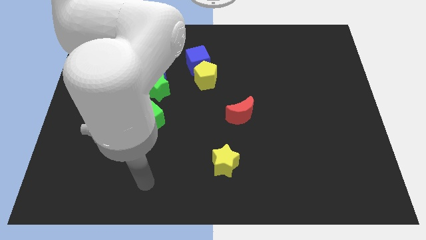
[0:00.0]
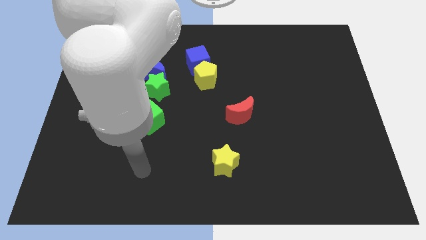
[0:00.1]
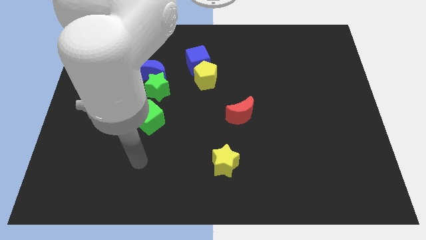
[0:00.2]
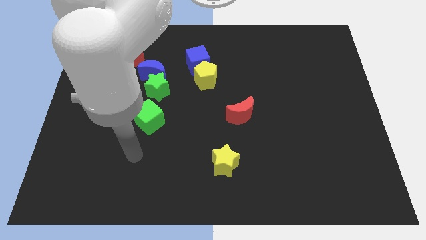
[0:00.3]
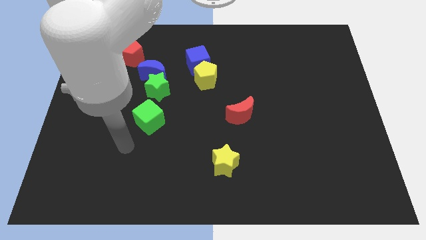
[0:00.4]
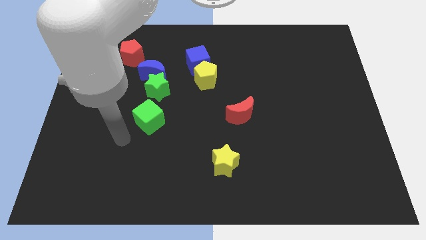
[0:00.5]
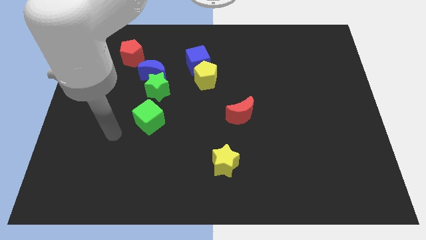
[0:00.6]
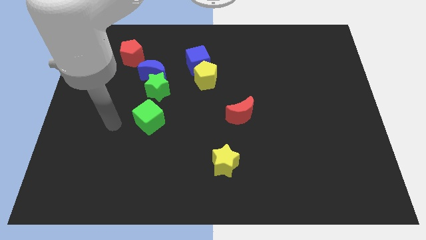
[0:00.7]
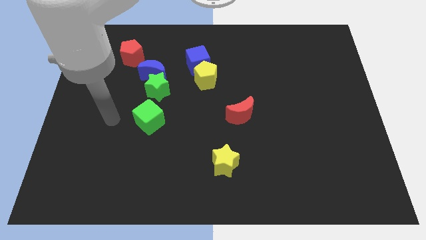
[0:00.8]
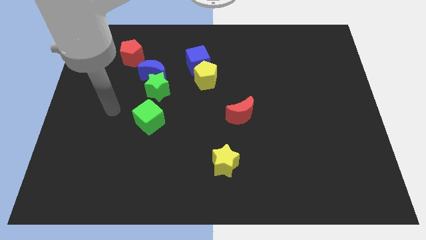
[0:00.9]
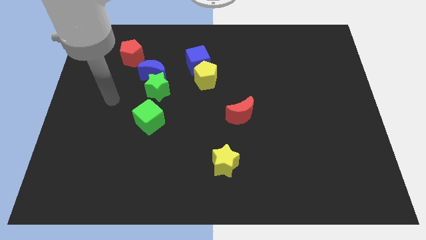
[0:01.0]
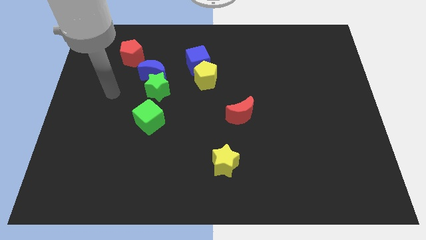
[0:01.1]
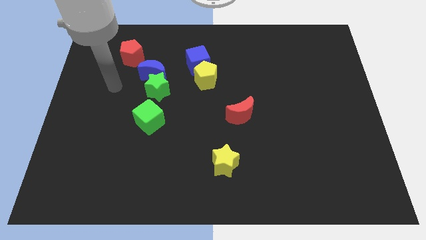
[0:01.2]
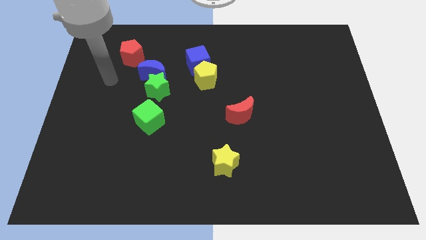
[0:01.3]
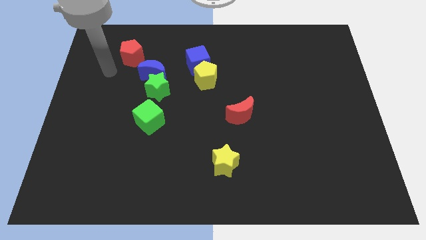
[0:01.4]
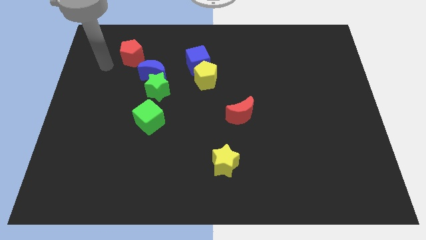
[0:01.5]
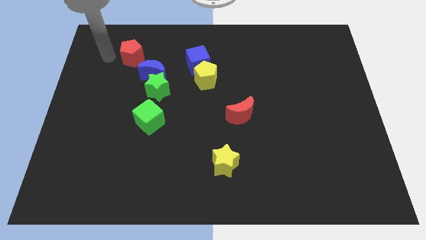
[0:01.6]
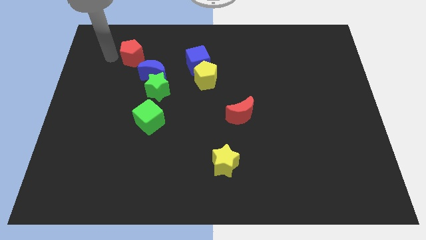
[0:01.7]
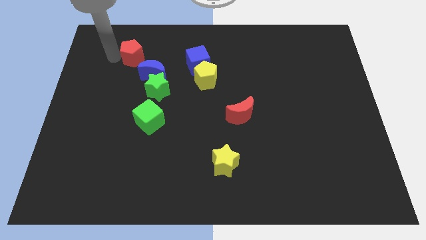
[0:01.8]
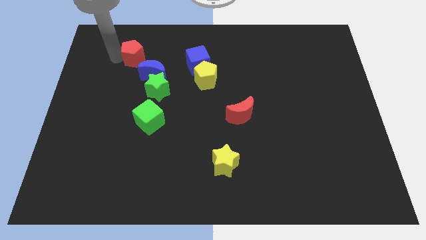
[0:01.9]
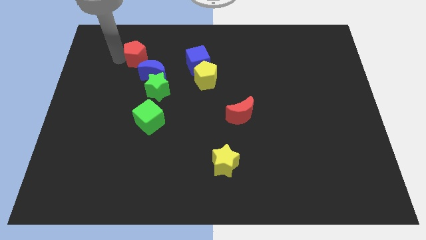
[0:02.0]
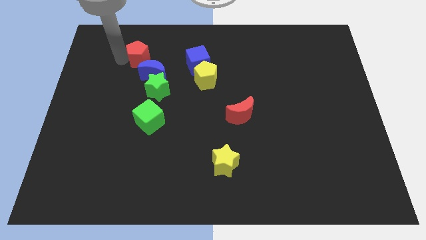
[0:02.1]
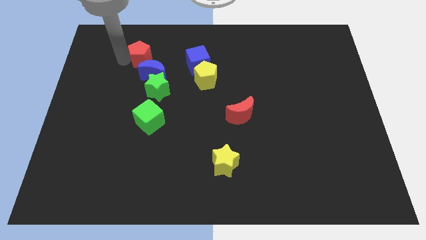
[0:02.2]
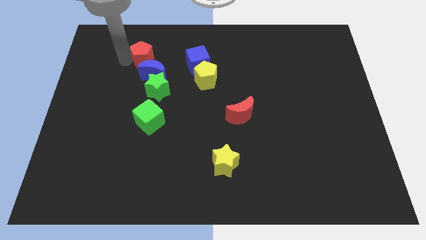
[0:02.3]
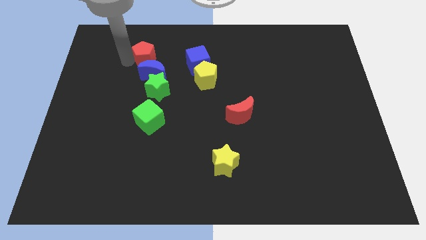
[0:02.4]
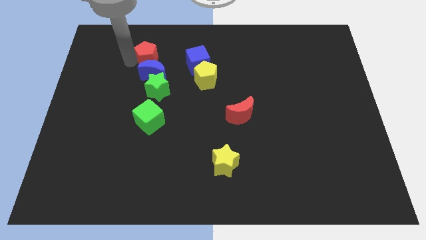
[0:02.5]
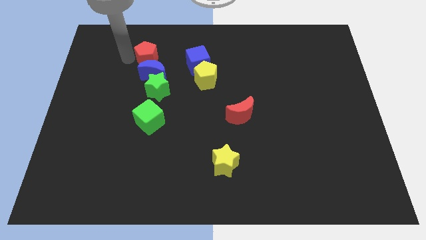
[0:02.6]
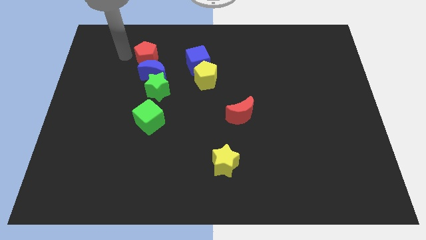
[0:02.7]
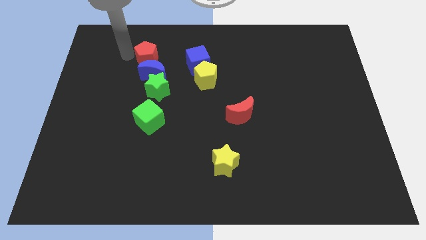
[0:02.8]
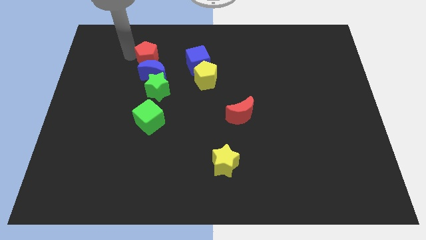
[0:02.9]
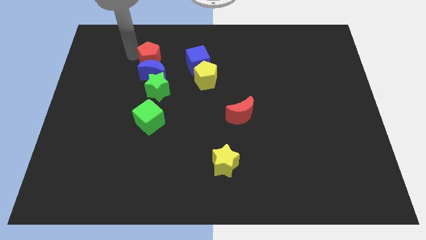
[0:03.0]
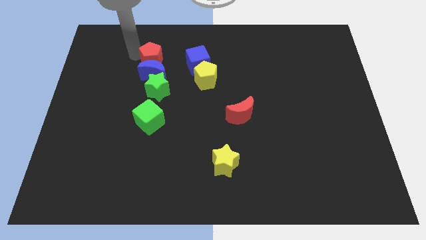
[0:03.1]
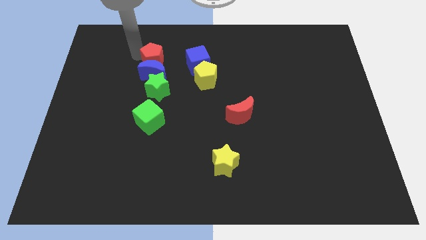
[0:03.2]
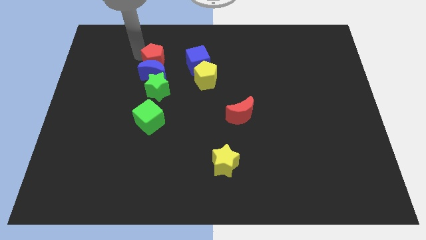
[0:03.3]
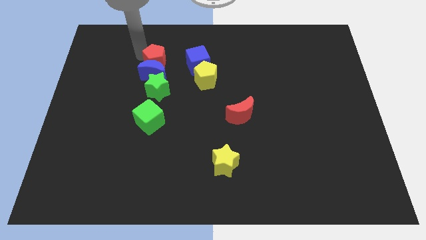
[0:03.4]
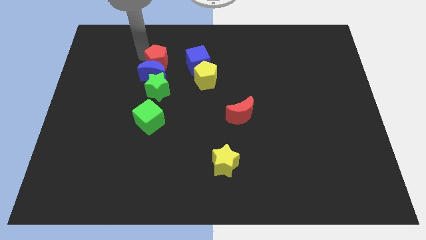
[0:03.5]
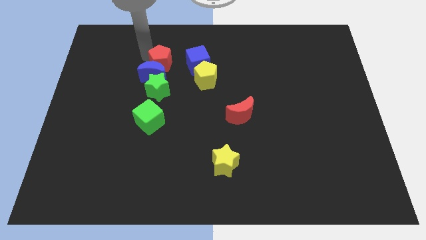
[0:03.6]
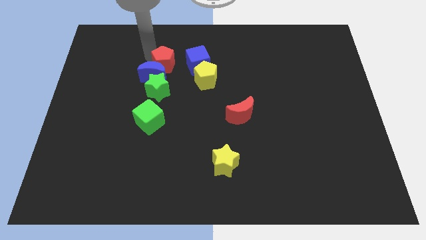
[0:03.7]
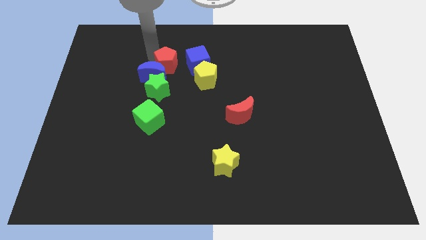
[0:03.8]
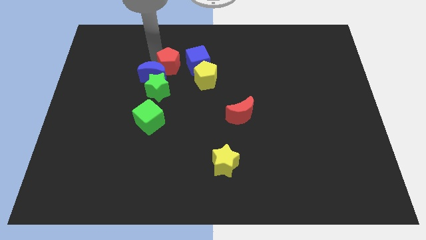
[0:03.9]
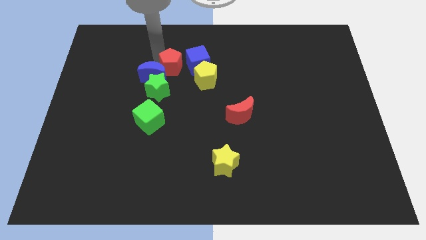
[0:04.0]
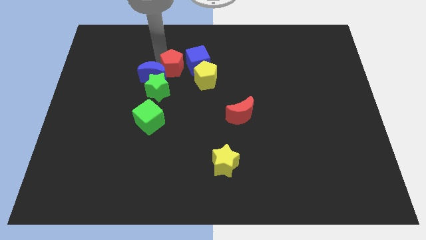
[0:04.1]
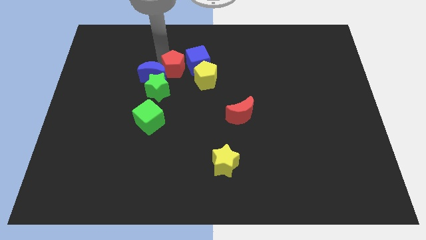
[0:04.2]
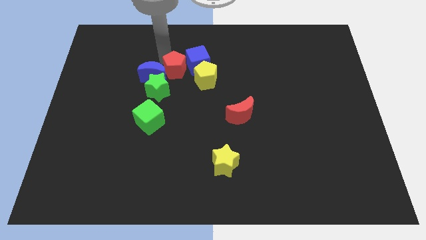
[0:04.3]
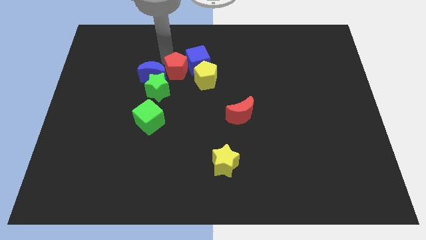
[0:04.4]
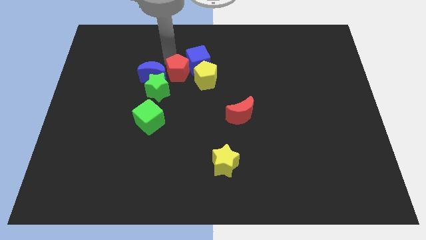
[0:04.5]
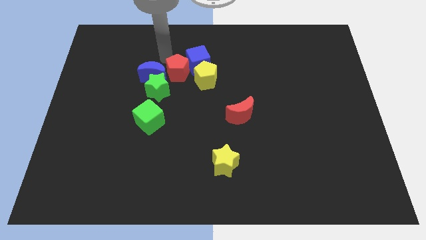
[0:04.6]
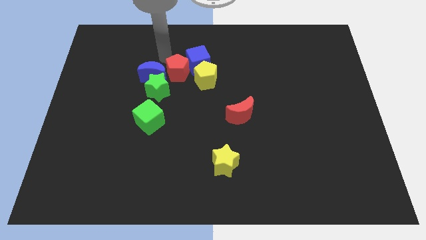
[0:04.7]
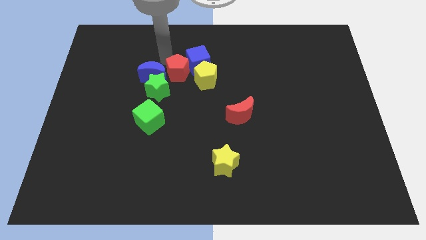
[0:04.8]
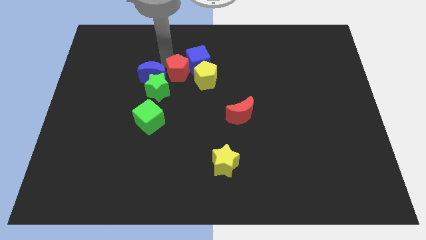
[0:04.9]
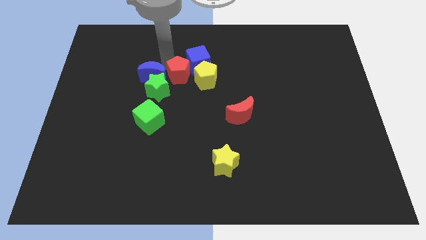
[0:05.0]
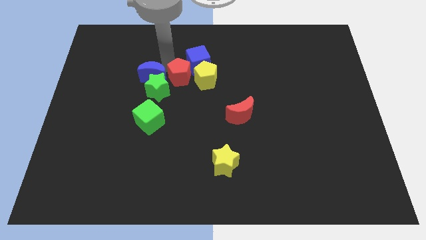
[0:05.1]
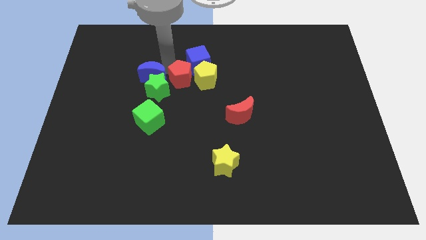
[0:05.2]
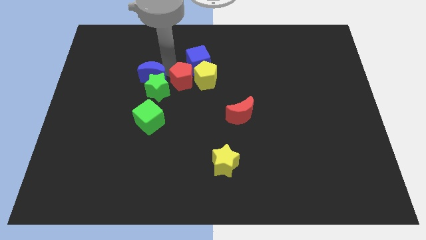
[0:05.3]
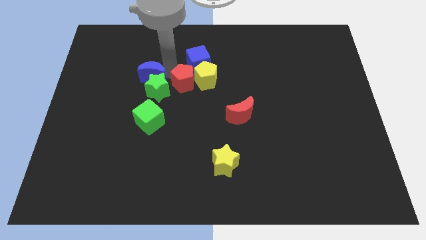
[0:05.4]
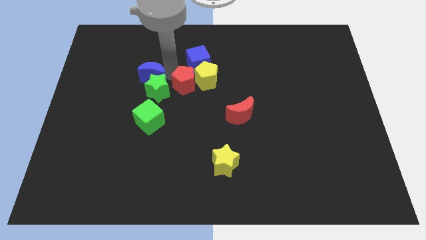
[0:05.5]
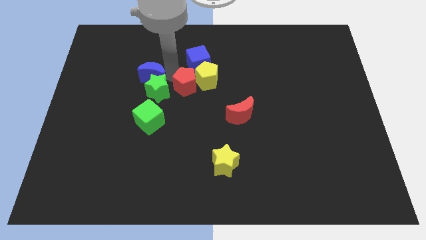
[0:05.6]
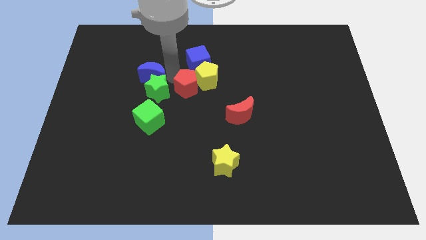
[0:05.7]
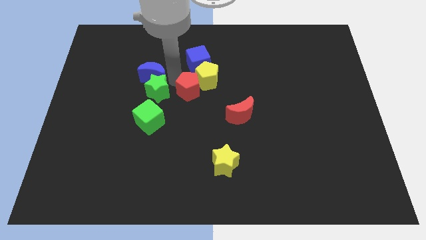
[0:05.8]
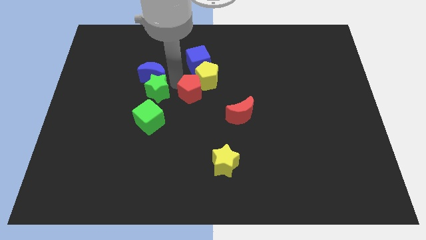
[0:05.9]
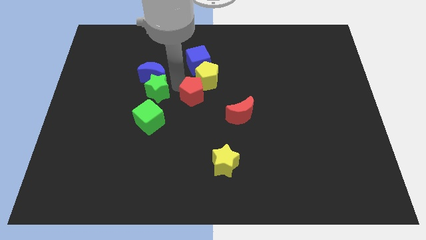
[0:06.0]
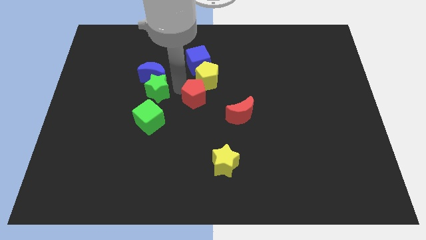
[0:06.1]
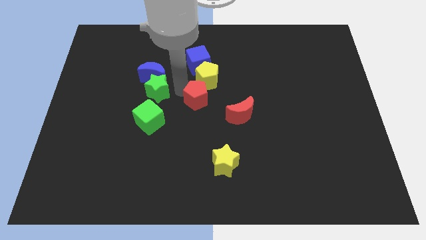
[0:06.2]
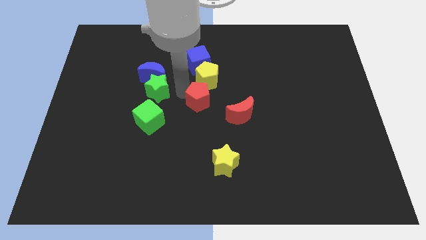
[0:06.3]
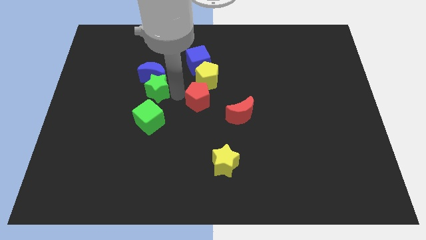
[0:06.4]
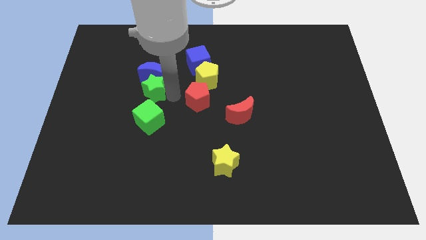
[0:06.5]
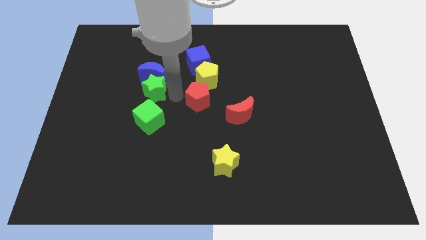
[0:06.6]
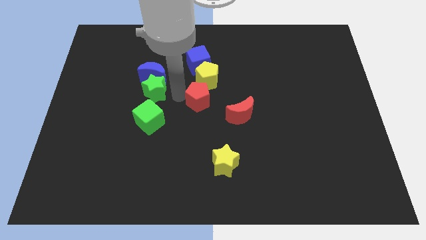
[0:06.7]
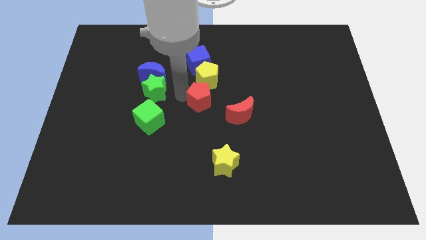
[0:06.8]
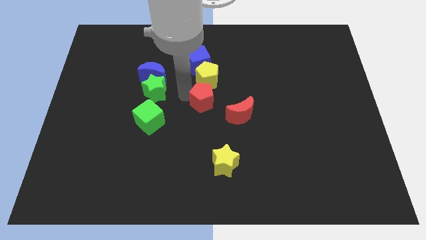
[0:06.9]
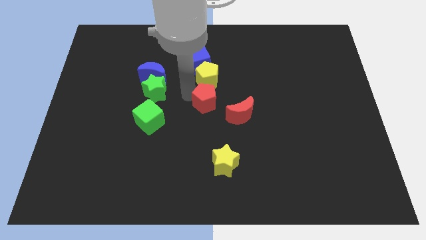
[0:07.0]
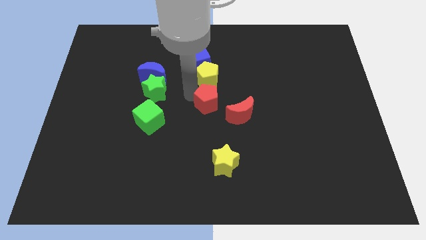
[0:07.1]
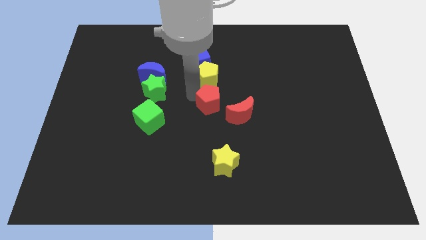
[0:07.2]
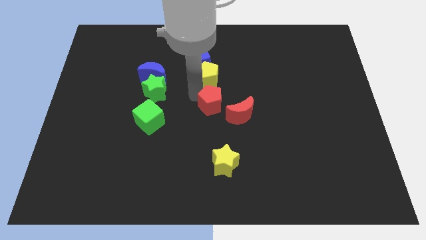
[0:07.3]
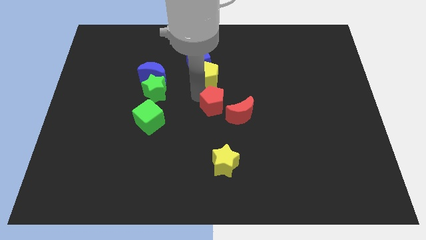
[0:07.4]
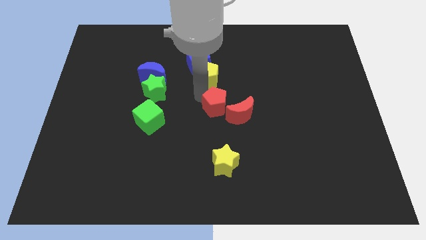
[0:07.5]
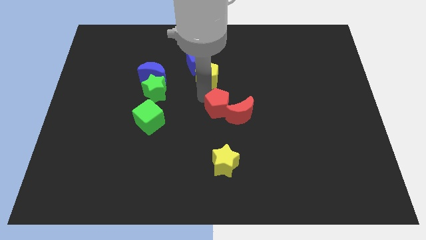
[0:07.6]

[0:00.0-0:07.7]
put the red pentagon to the red moon
